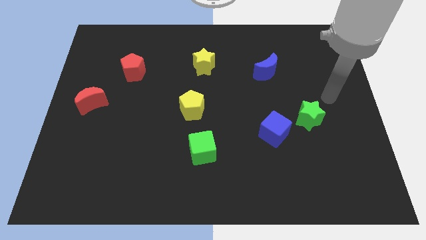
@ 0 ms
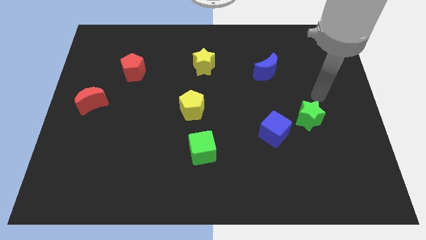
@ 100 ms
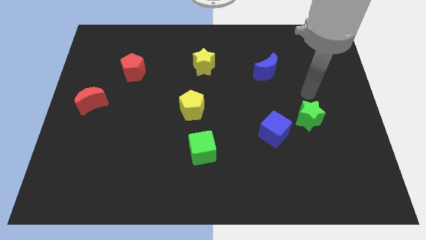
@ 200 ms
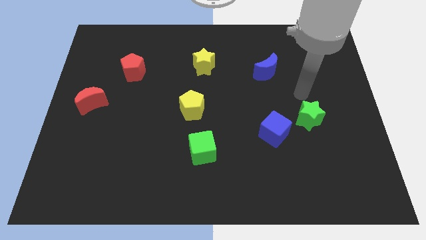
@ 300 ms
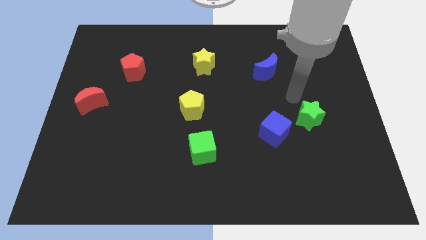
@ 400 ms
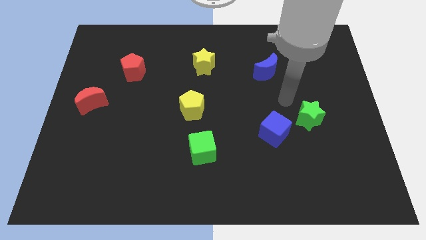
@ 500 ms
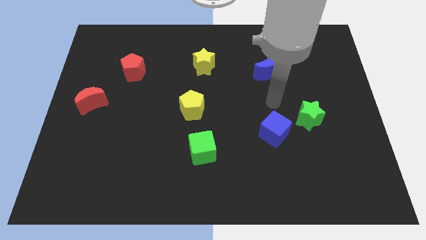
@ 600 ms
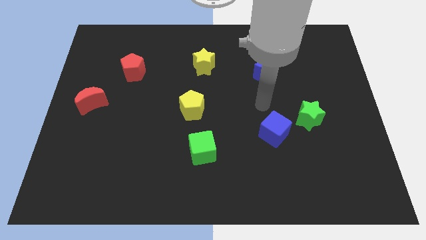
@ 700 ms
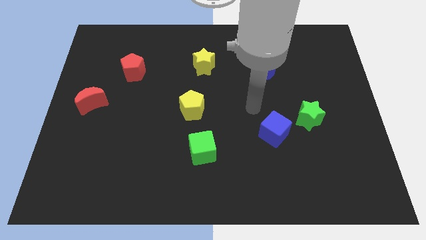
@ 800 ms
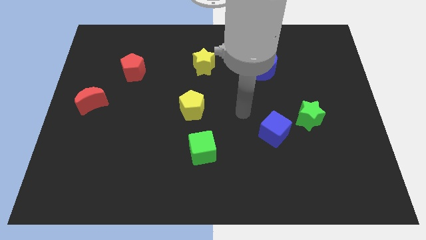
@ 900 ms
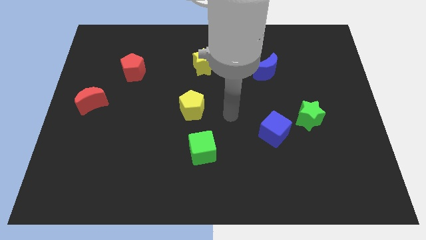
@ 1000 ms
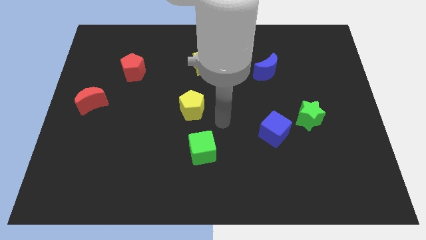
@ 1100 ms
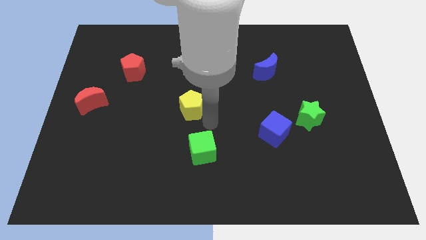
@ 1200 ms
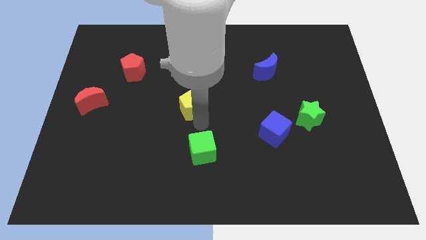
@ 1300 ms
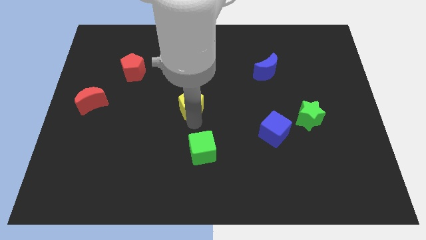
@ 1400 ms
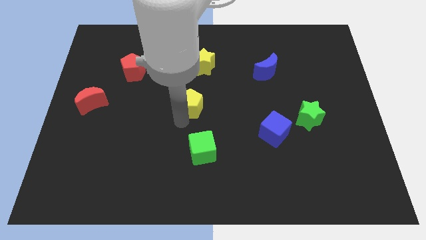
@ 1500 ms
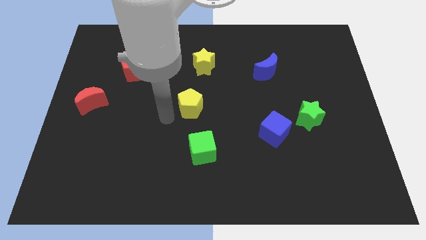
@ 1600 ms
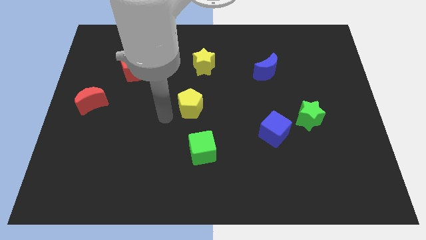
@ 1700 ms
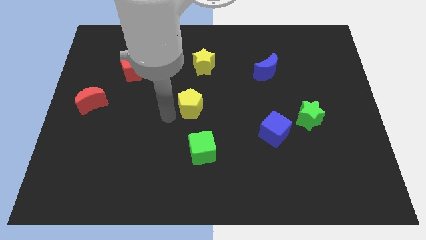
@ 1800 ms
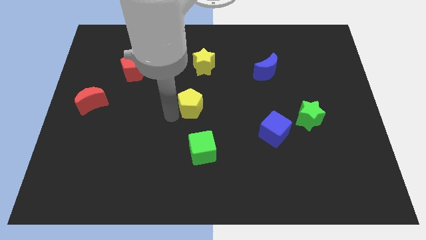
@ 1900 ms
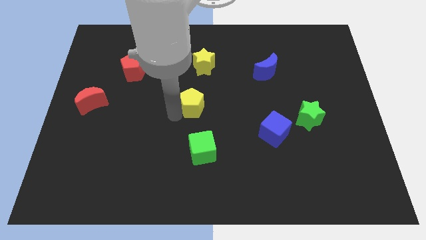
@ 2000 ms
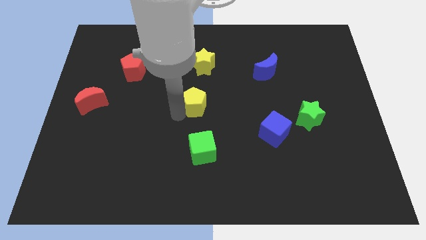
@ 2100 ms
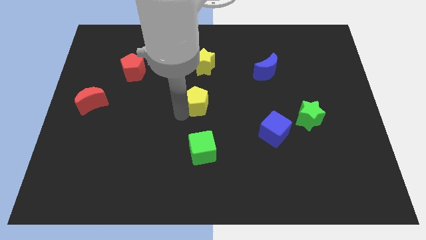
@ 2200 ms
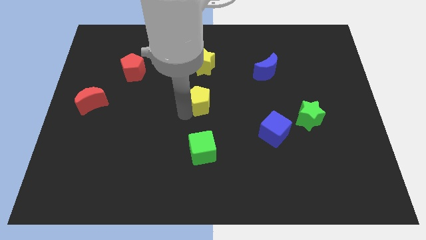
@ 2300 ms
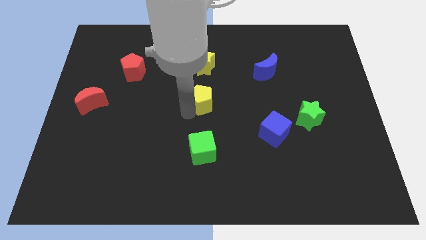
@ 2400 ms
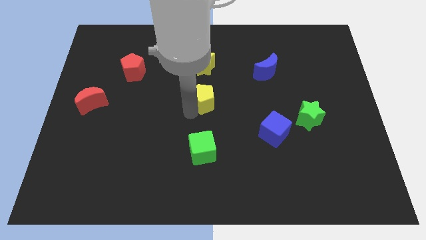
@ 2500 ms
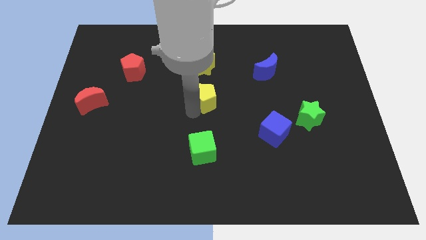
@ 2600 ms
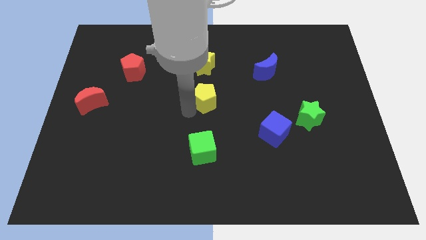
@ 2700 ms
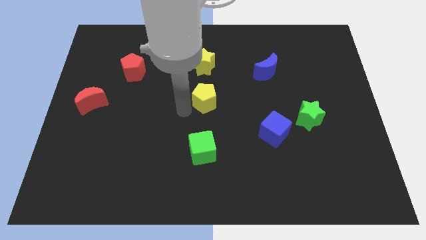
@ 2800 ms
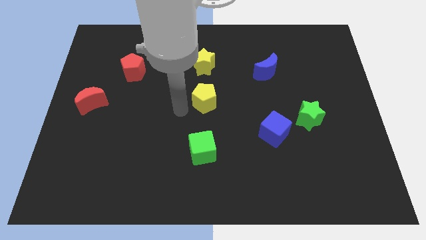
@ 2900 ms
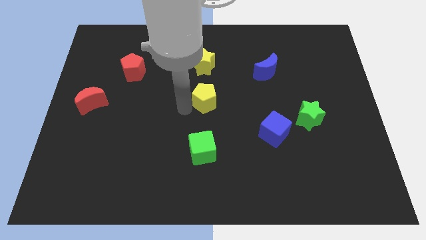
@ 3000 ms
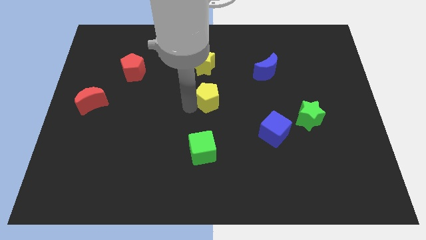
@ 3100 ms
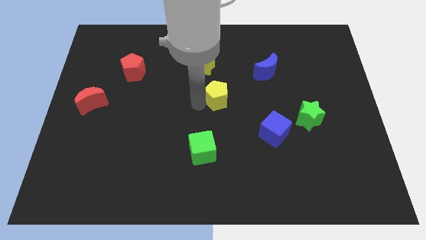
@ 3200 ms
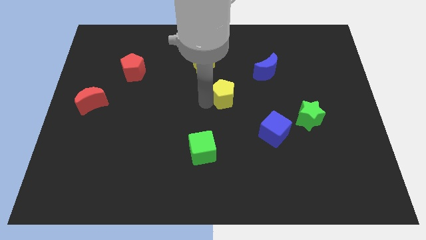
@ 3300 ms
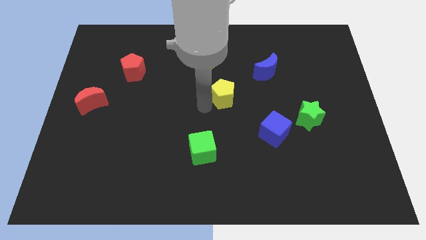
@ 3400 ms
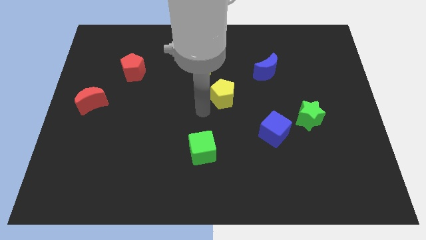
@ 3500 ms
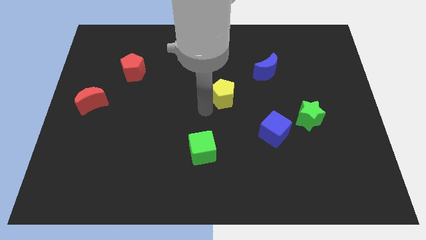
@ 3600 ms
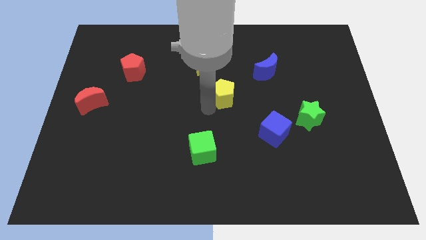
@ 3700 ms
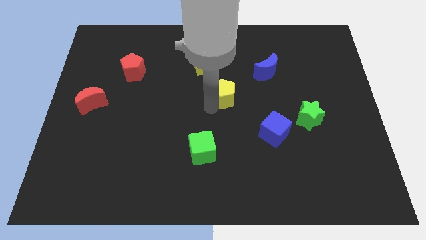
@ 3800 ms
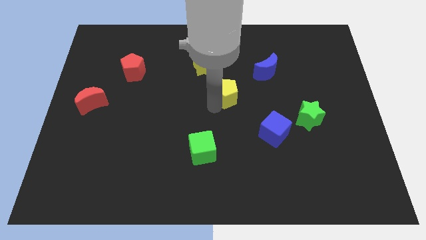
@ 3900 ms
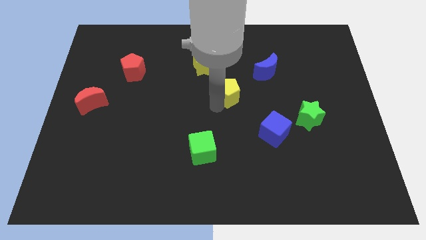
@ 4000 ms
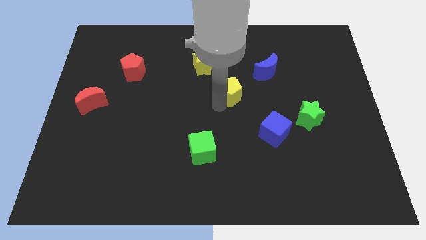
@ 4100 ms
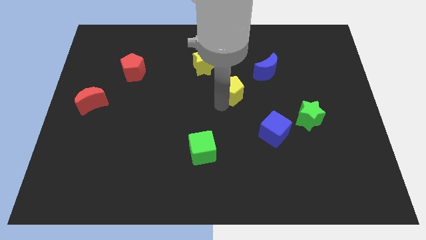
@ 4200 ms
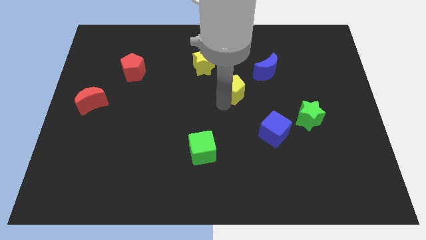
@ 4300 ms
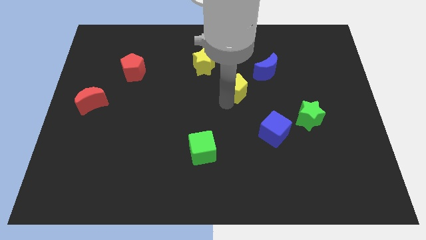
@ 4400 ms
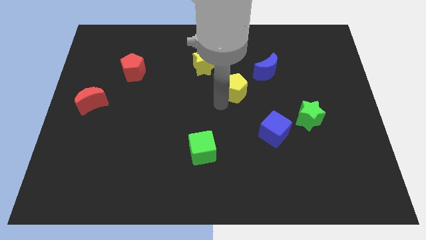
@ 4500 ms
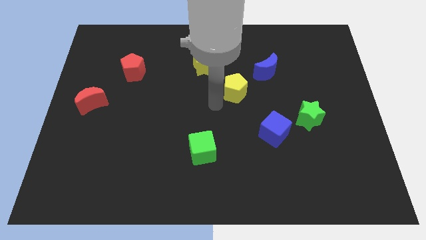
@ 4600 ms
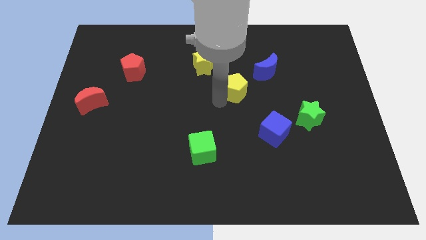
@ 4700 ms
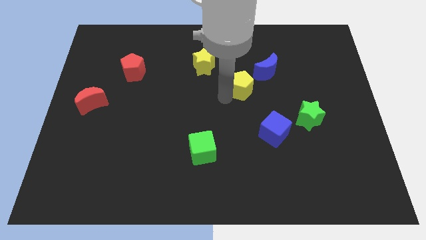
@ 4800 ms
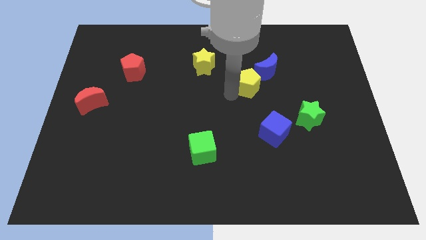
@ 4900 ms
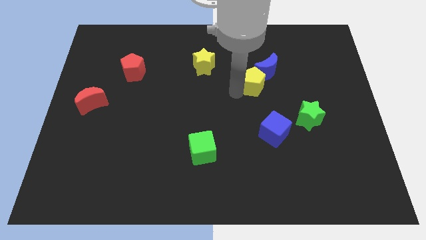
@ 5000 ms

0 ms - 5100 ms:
slide the yellow pentagon close to the blue moon

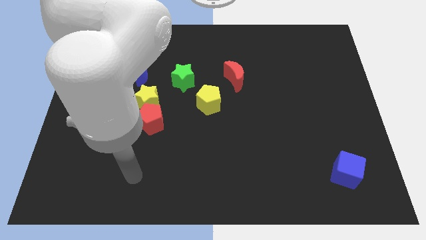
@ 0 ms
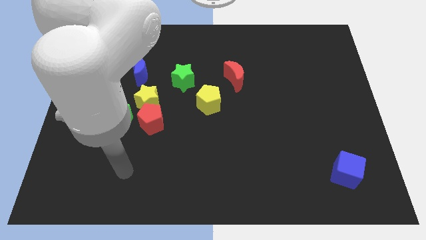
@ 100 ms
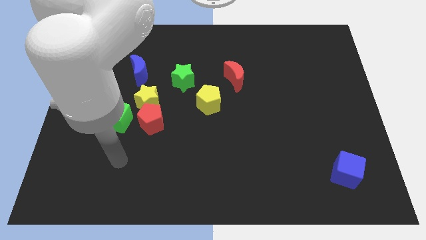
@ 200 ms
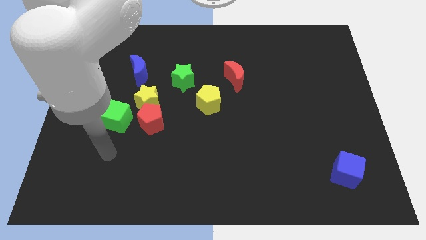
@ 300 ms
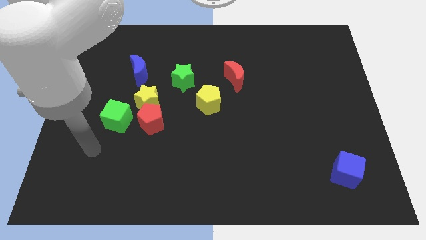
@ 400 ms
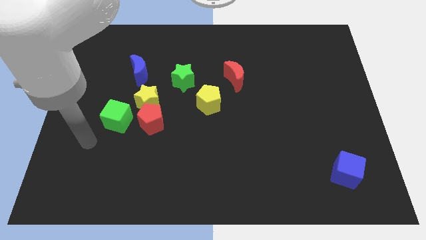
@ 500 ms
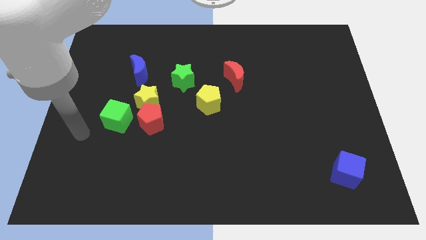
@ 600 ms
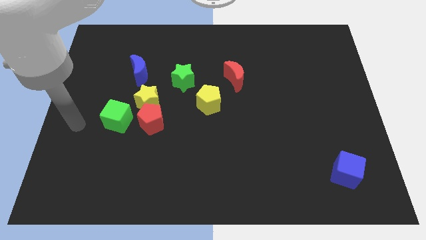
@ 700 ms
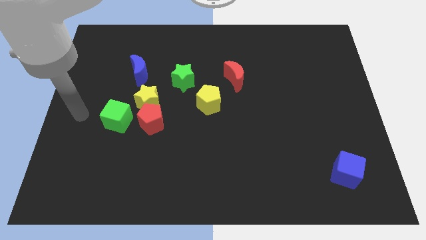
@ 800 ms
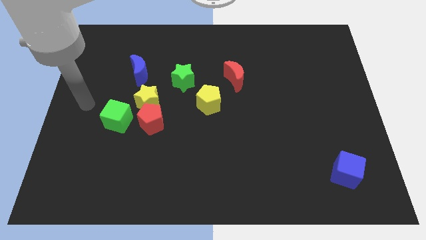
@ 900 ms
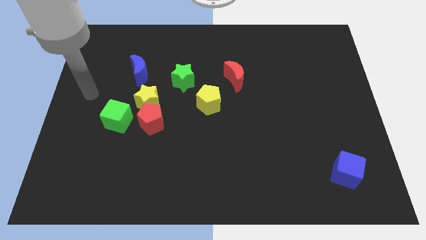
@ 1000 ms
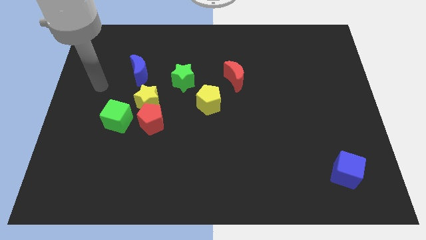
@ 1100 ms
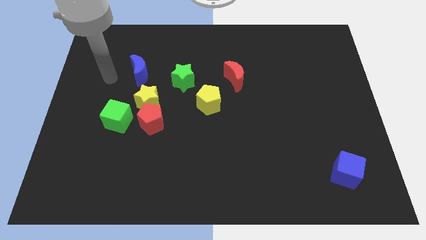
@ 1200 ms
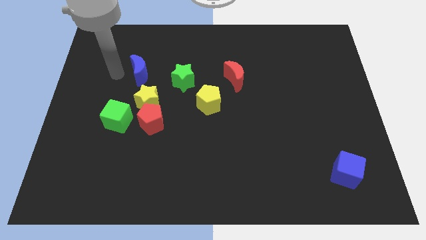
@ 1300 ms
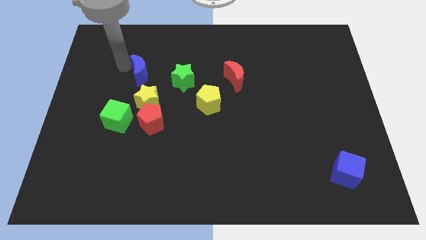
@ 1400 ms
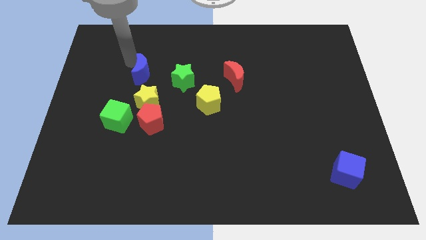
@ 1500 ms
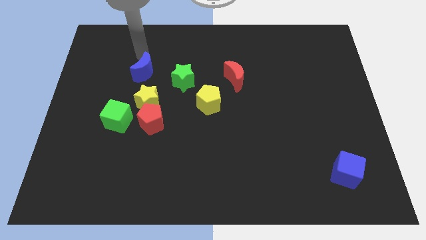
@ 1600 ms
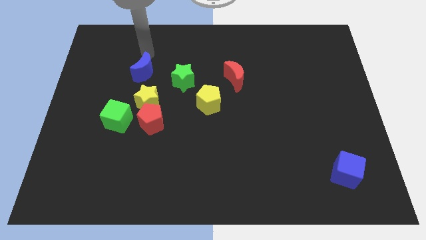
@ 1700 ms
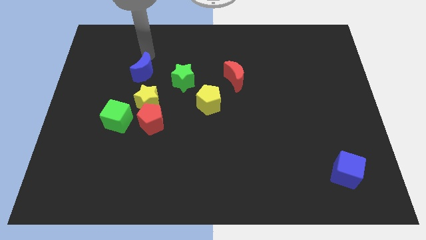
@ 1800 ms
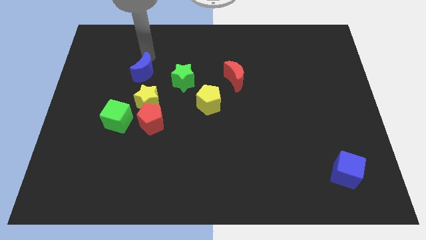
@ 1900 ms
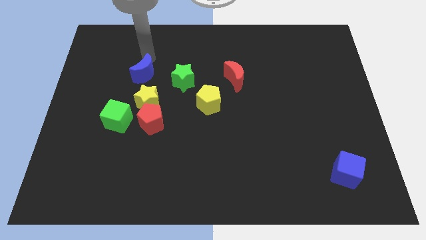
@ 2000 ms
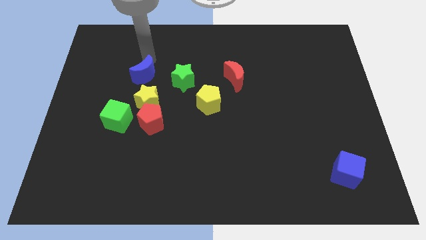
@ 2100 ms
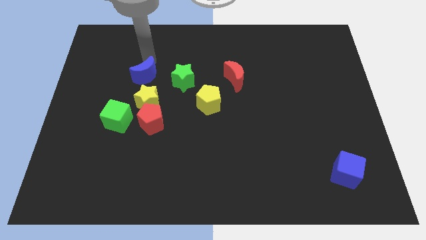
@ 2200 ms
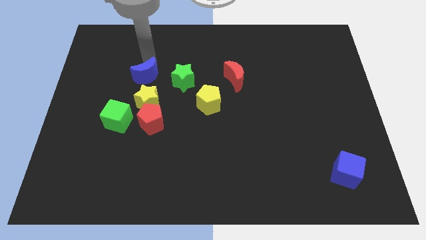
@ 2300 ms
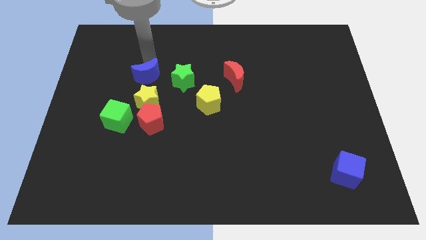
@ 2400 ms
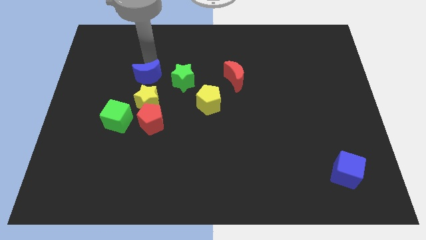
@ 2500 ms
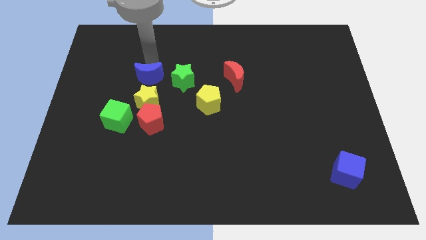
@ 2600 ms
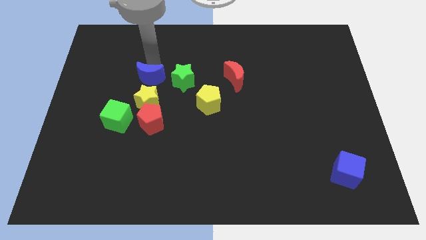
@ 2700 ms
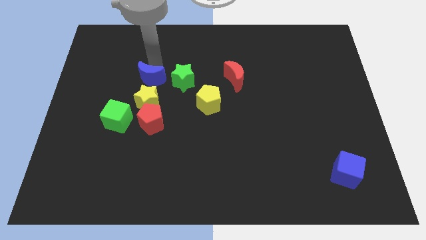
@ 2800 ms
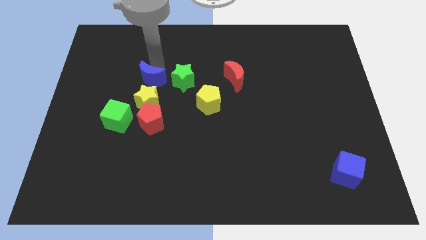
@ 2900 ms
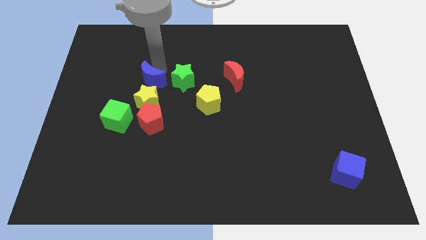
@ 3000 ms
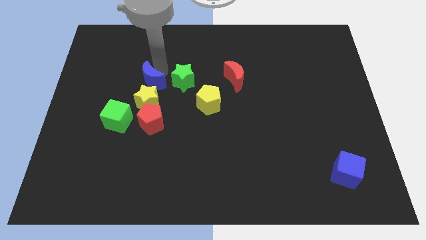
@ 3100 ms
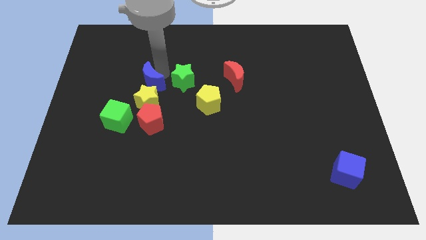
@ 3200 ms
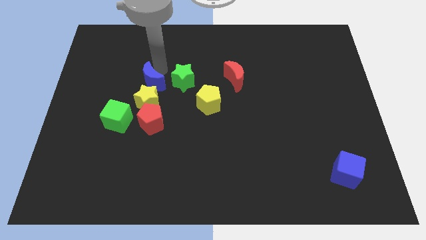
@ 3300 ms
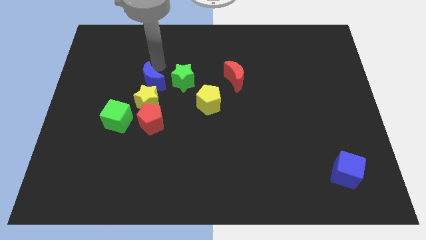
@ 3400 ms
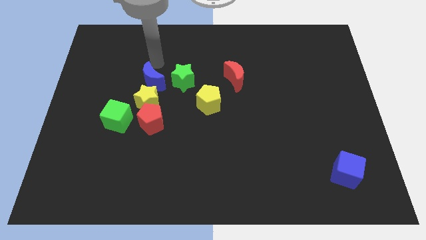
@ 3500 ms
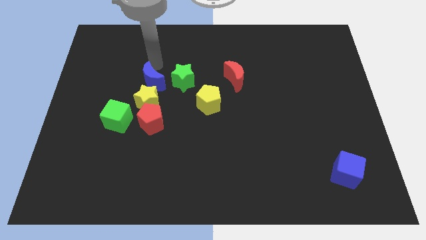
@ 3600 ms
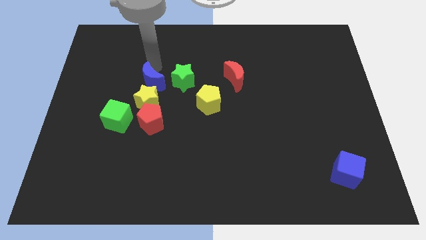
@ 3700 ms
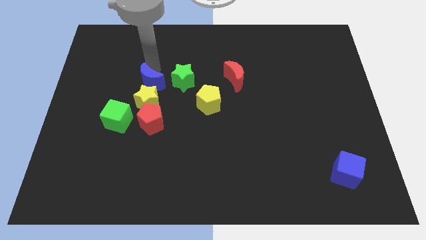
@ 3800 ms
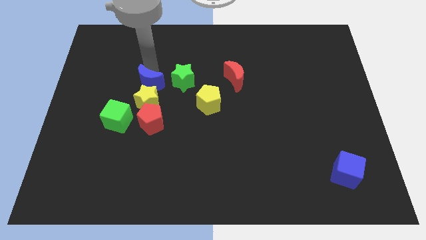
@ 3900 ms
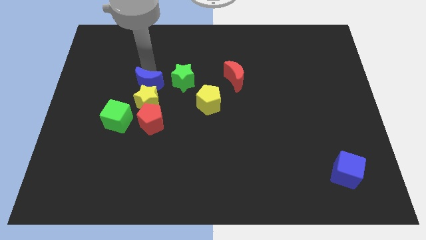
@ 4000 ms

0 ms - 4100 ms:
put the blue moon next to the yellow star
